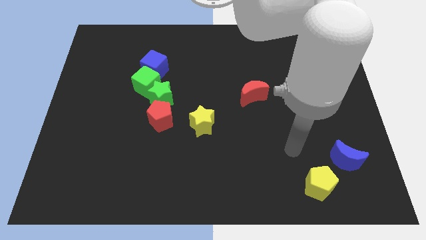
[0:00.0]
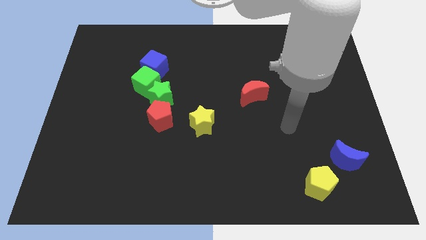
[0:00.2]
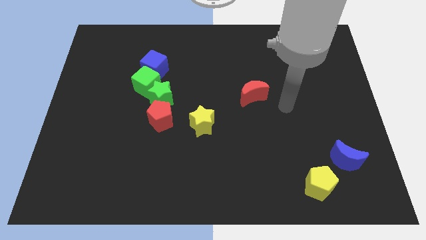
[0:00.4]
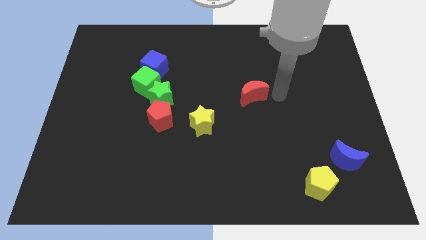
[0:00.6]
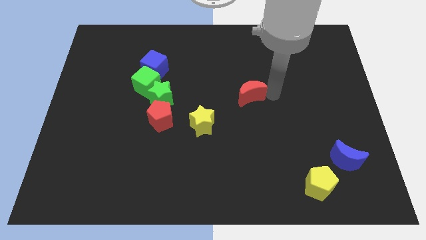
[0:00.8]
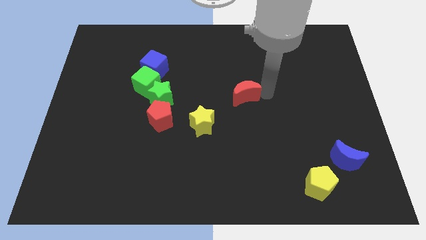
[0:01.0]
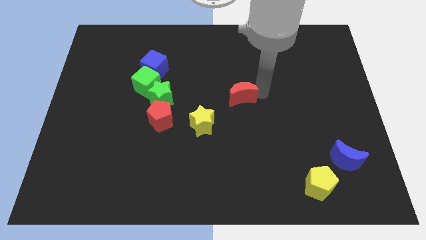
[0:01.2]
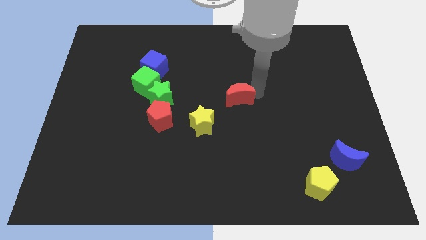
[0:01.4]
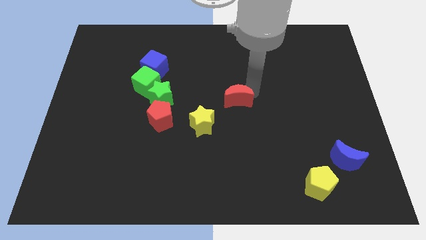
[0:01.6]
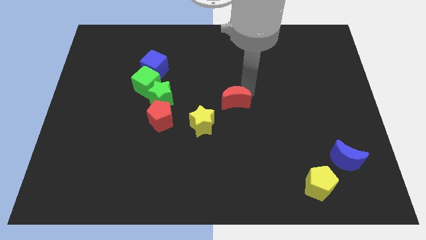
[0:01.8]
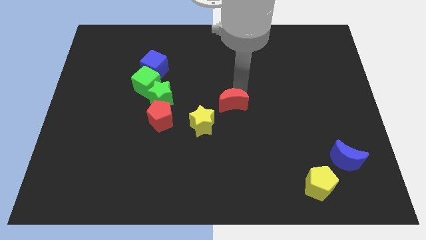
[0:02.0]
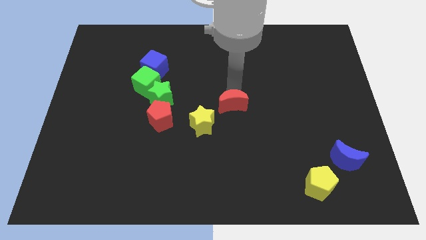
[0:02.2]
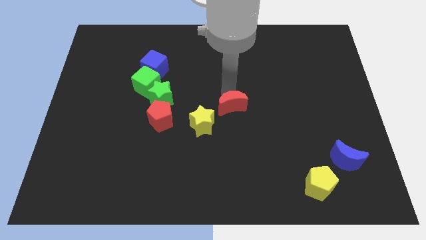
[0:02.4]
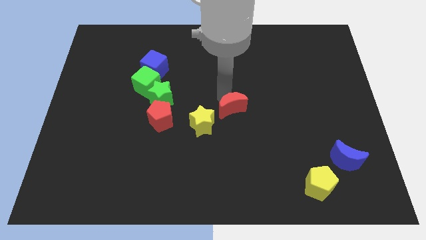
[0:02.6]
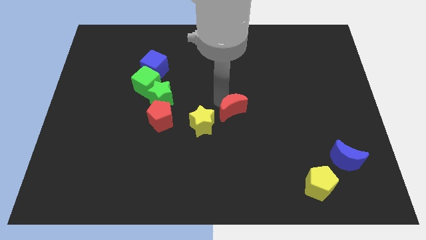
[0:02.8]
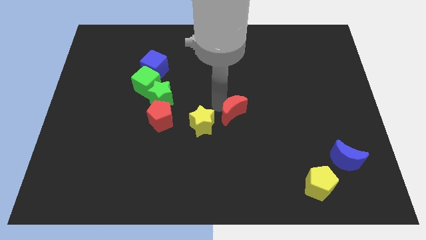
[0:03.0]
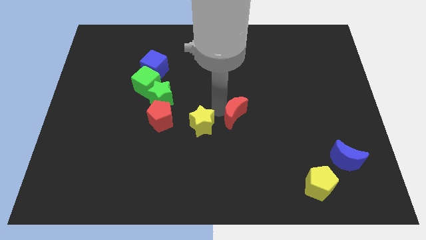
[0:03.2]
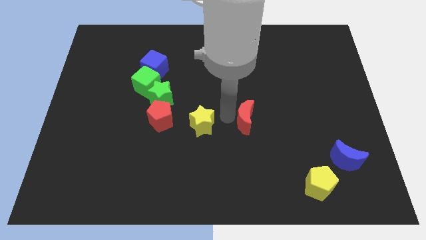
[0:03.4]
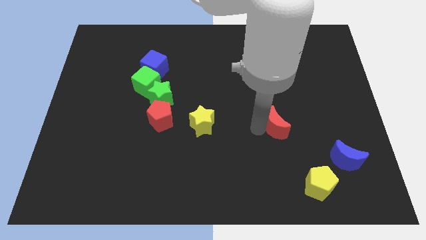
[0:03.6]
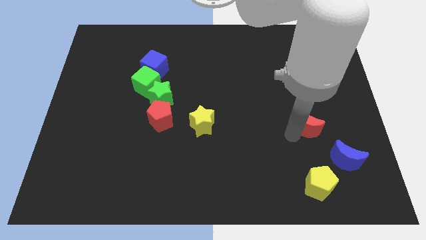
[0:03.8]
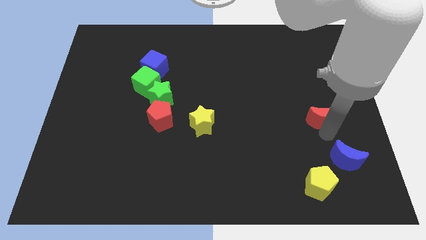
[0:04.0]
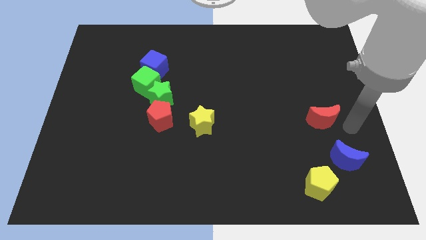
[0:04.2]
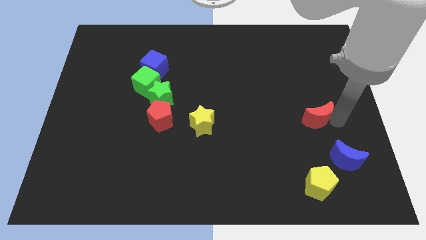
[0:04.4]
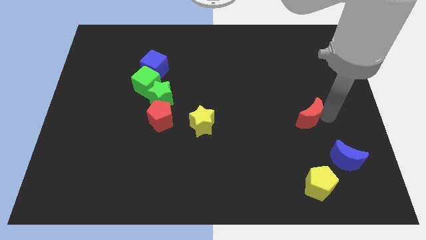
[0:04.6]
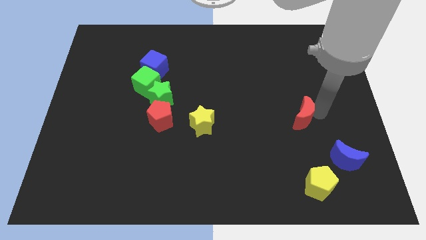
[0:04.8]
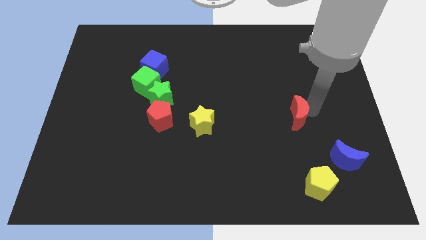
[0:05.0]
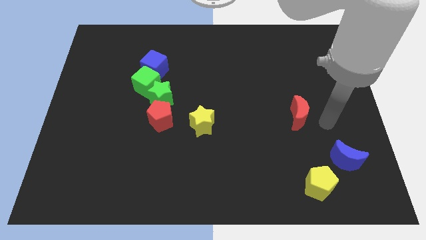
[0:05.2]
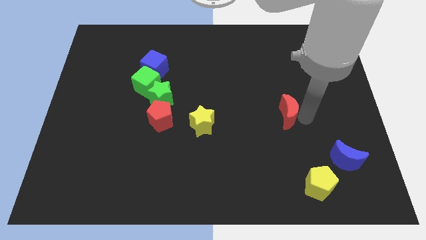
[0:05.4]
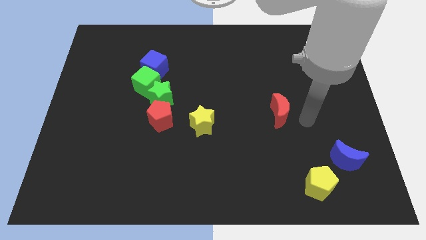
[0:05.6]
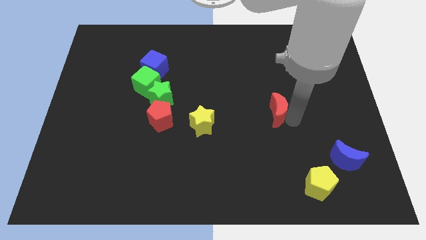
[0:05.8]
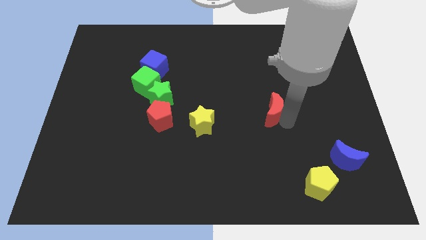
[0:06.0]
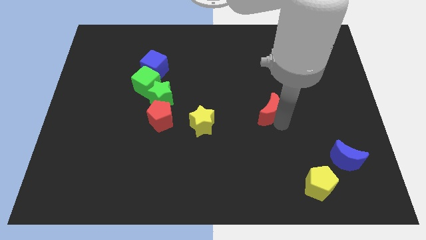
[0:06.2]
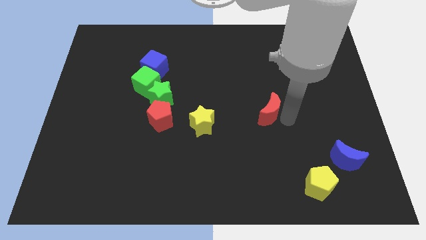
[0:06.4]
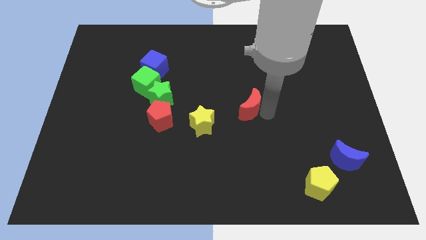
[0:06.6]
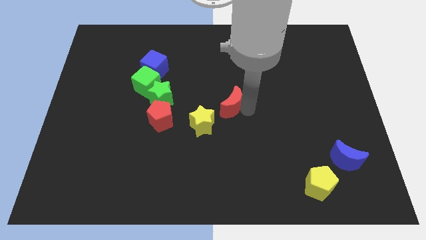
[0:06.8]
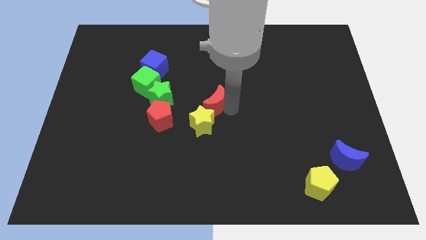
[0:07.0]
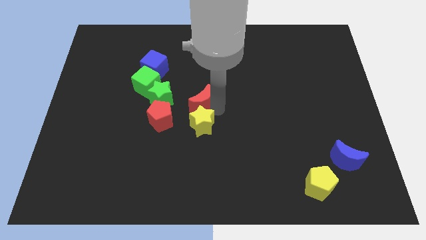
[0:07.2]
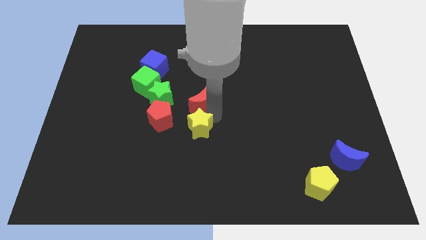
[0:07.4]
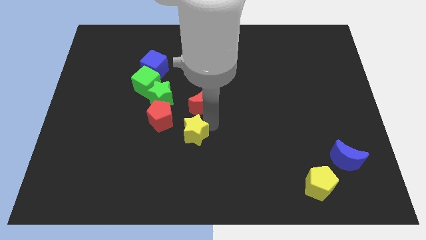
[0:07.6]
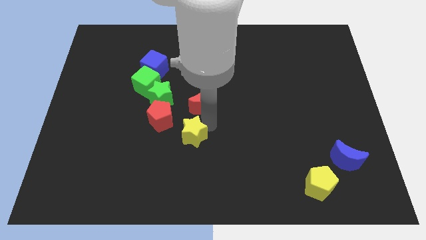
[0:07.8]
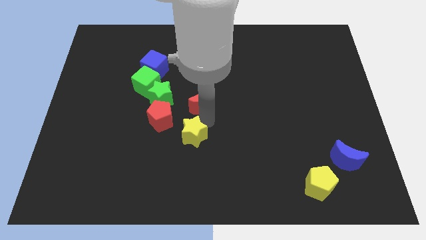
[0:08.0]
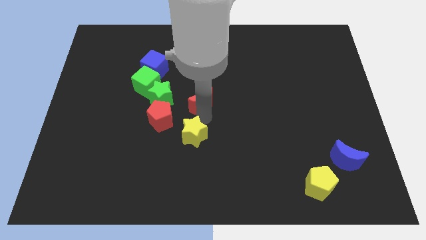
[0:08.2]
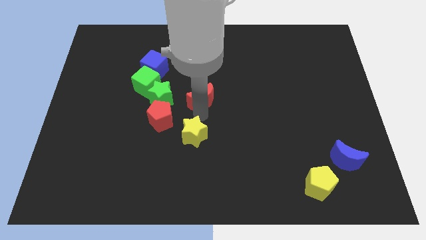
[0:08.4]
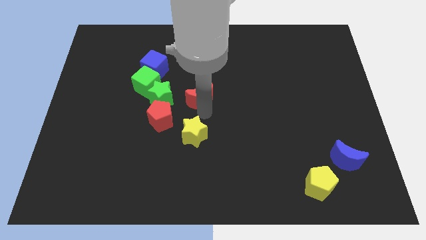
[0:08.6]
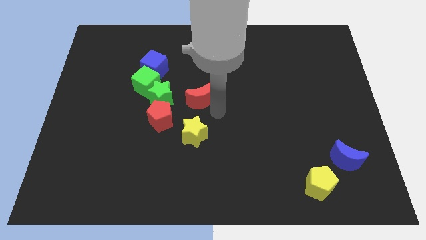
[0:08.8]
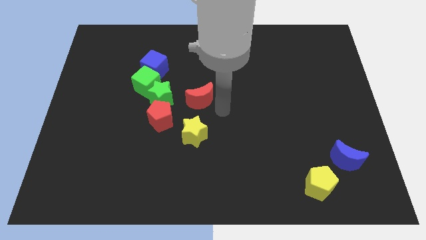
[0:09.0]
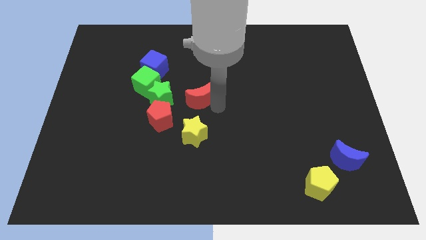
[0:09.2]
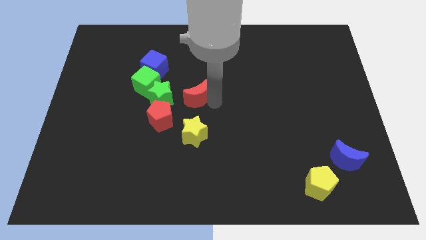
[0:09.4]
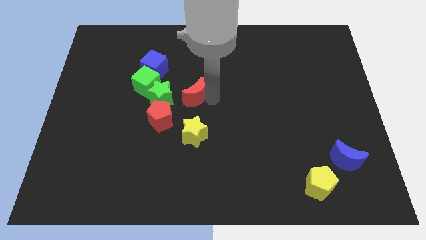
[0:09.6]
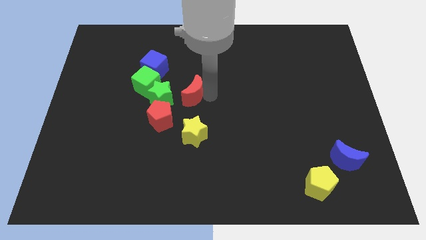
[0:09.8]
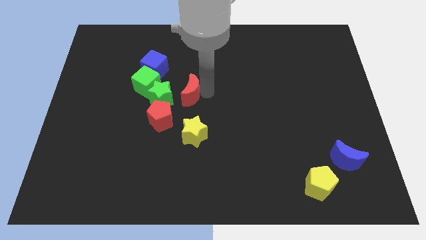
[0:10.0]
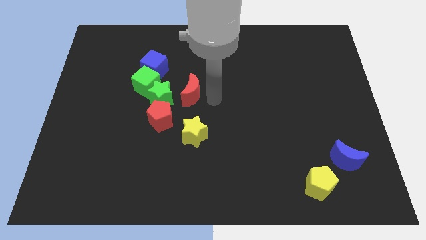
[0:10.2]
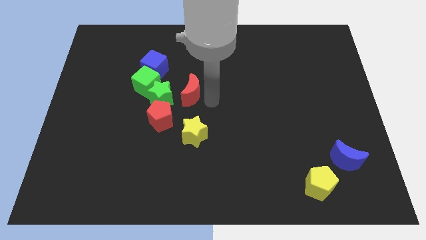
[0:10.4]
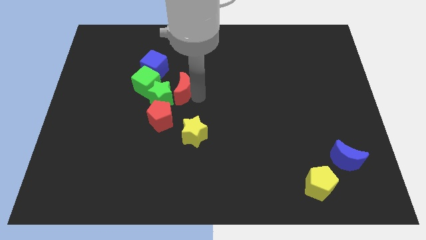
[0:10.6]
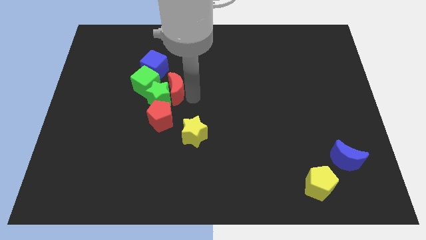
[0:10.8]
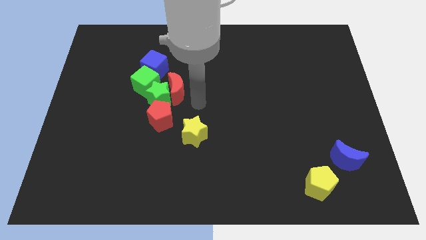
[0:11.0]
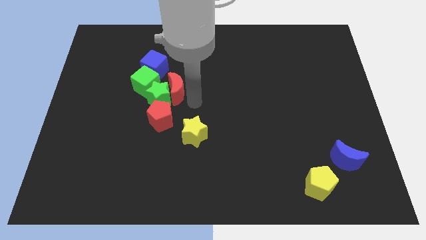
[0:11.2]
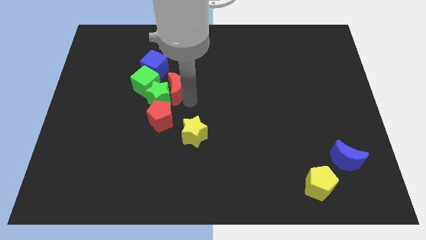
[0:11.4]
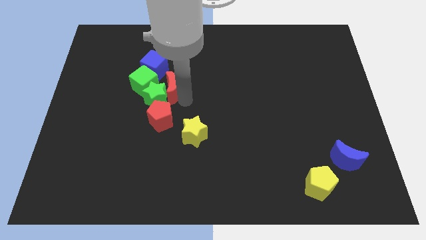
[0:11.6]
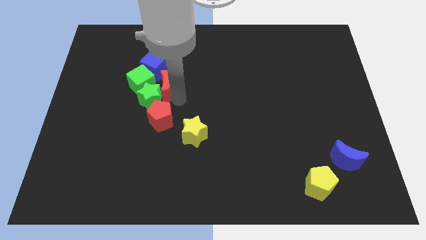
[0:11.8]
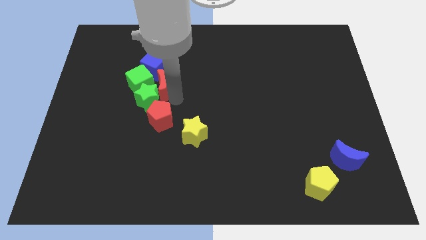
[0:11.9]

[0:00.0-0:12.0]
slide the red moon next to the green cube

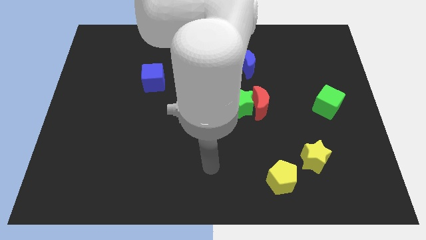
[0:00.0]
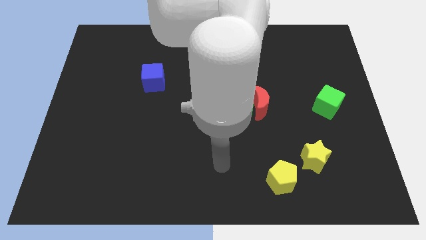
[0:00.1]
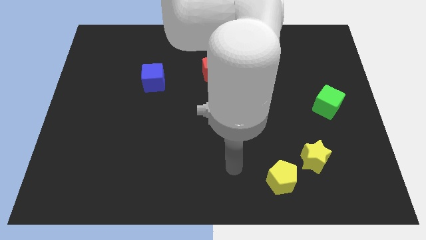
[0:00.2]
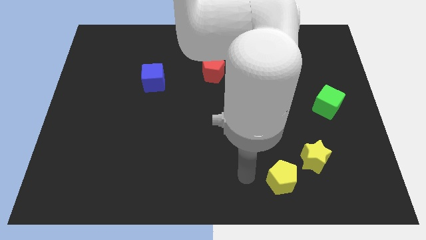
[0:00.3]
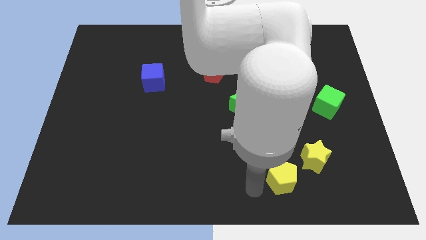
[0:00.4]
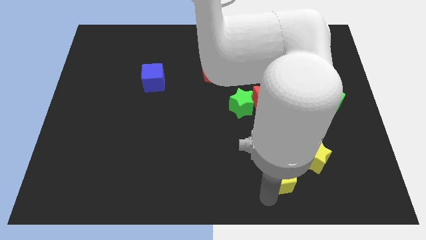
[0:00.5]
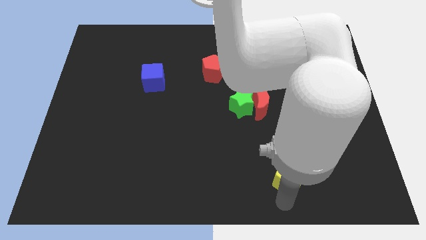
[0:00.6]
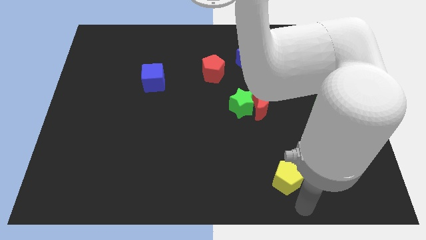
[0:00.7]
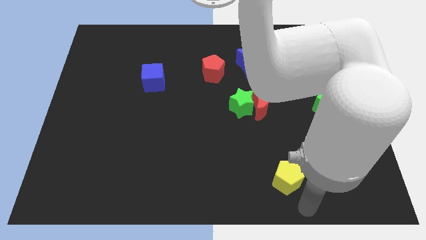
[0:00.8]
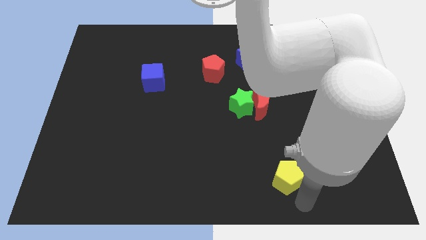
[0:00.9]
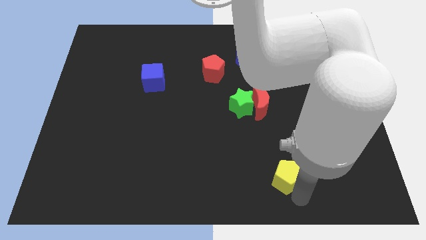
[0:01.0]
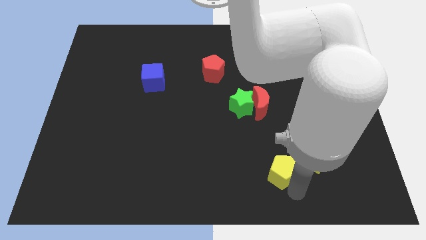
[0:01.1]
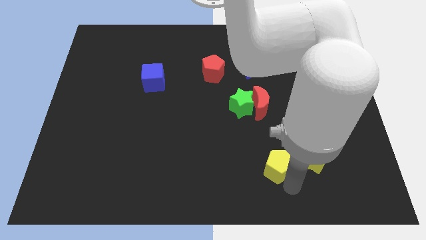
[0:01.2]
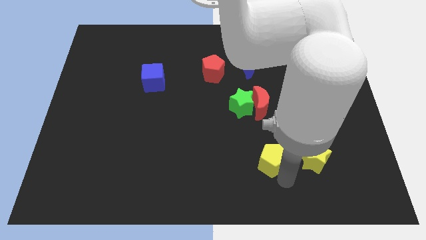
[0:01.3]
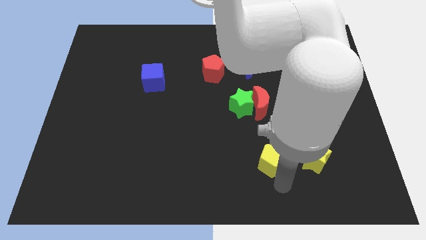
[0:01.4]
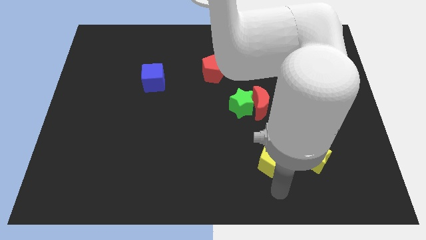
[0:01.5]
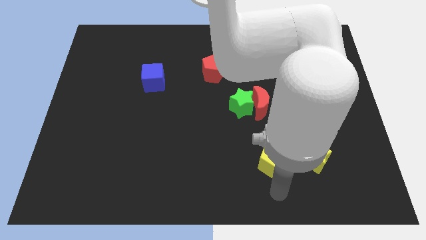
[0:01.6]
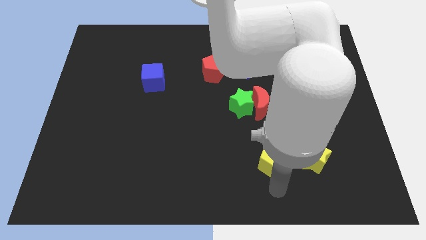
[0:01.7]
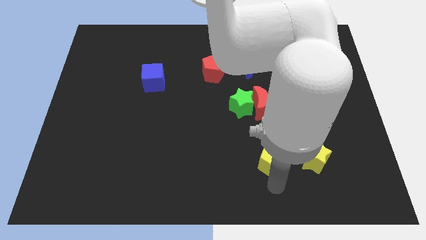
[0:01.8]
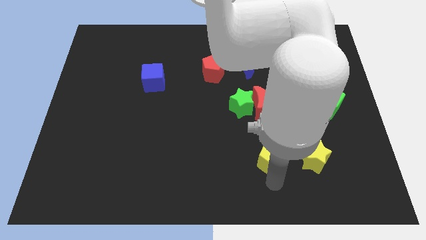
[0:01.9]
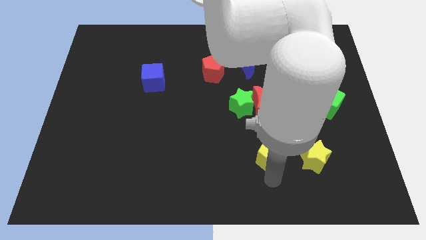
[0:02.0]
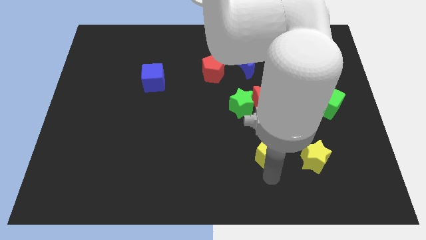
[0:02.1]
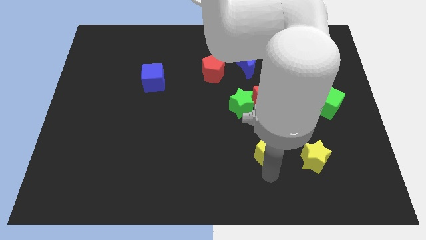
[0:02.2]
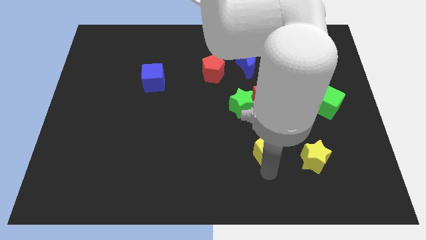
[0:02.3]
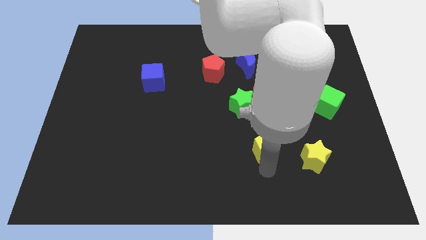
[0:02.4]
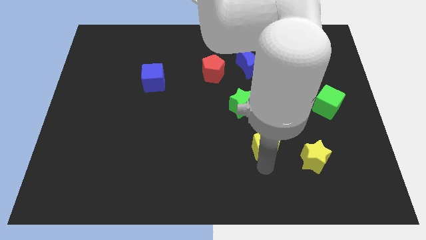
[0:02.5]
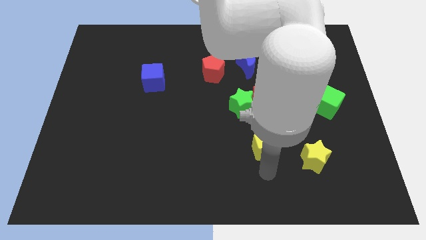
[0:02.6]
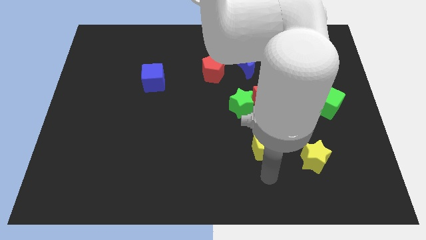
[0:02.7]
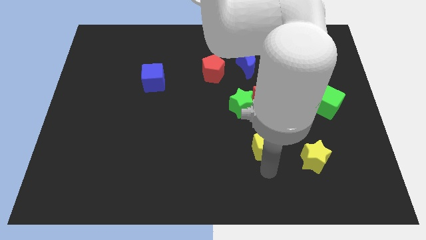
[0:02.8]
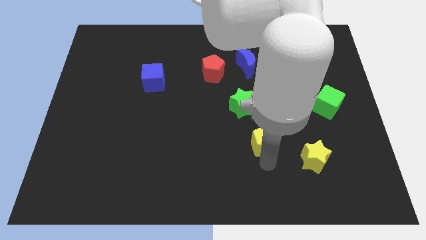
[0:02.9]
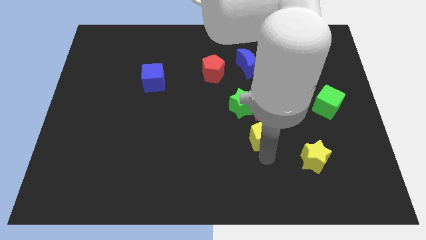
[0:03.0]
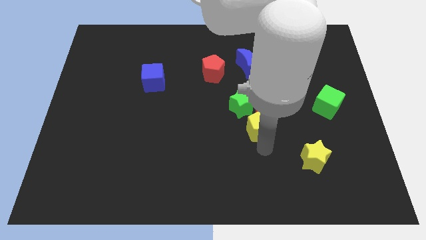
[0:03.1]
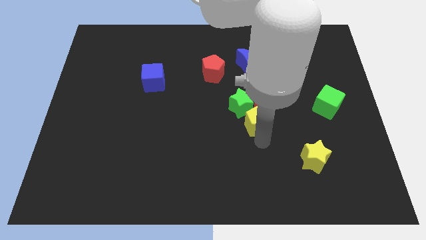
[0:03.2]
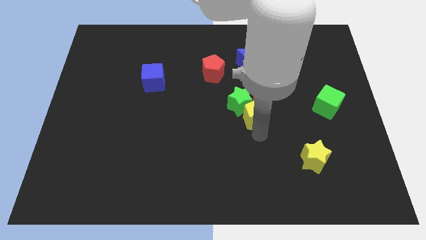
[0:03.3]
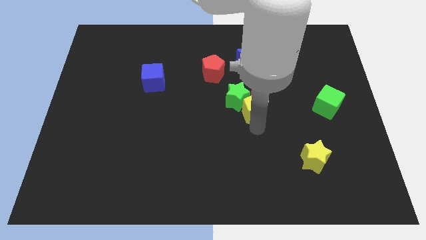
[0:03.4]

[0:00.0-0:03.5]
put the yellow pentagon towards the red moon
